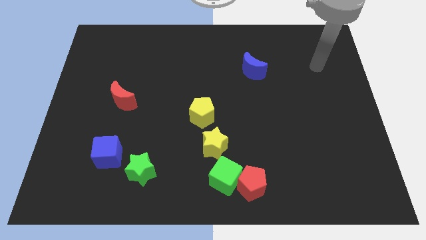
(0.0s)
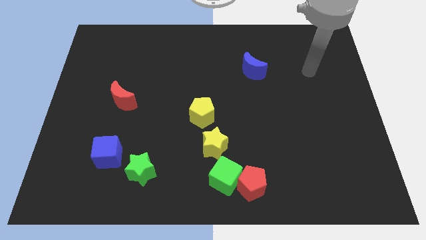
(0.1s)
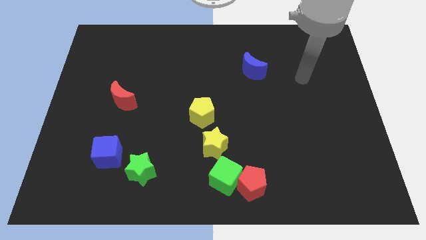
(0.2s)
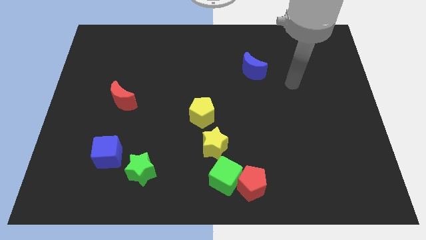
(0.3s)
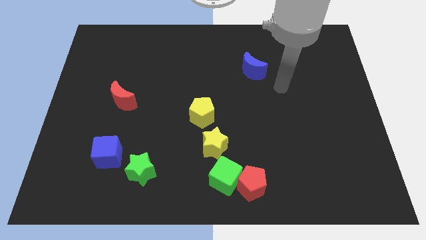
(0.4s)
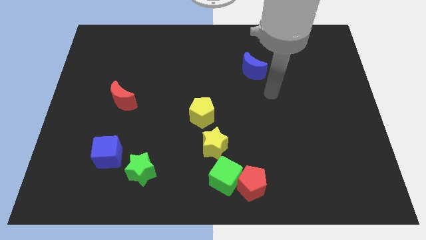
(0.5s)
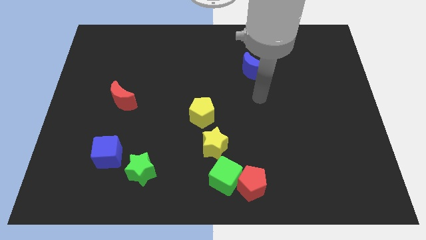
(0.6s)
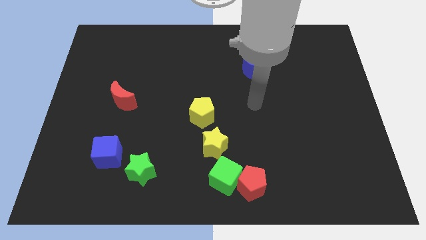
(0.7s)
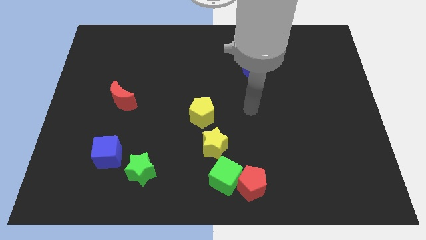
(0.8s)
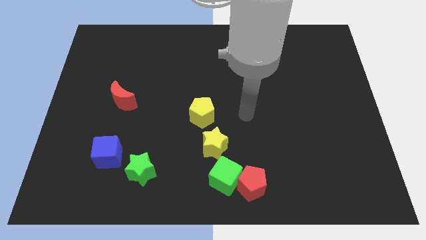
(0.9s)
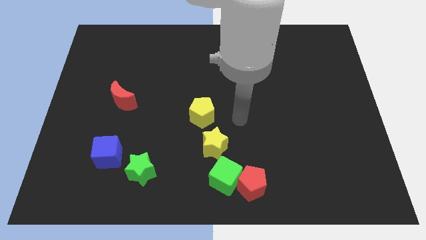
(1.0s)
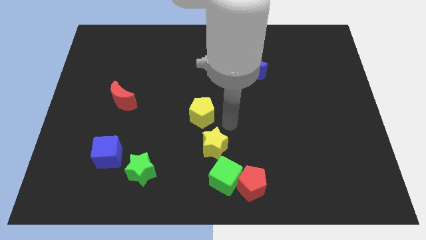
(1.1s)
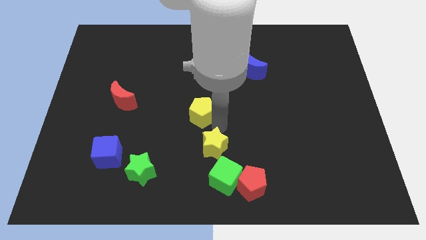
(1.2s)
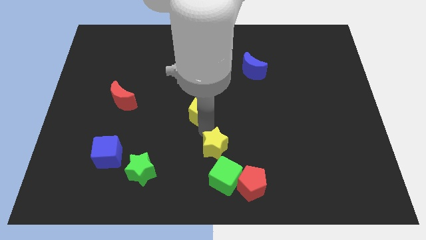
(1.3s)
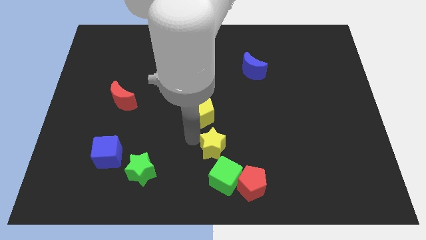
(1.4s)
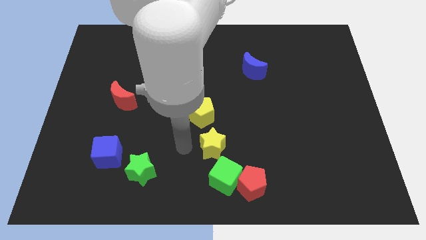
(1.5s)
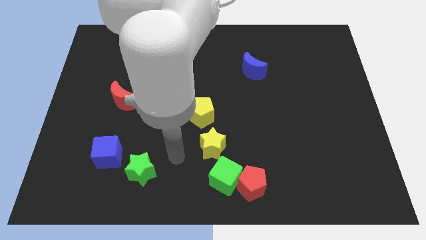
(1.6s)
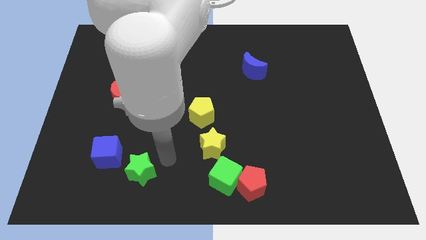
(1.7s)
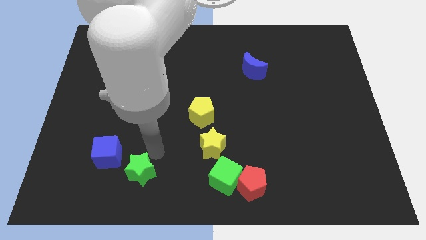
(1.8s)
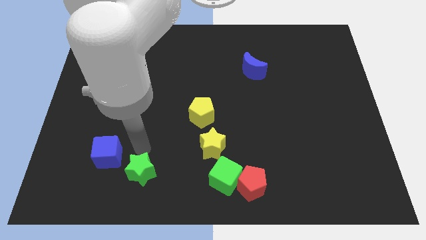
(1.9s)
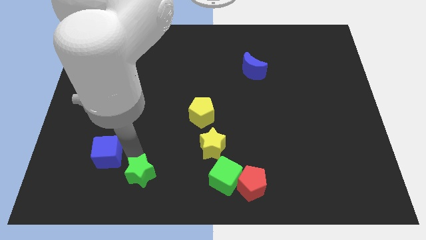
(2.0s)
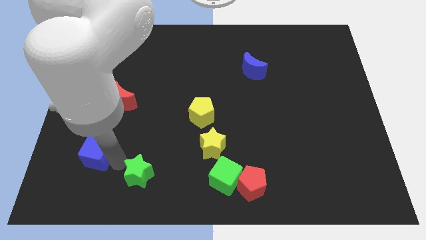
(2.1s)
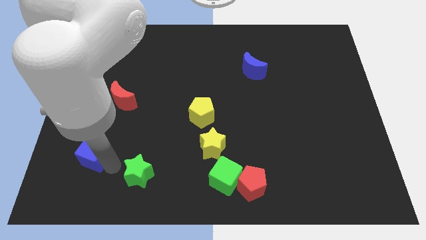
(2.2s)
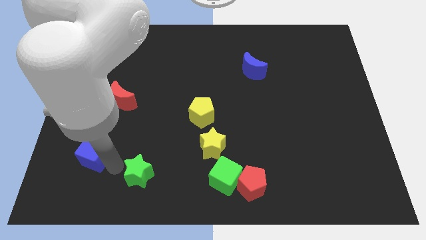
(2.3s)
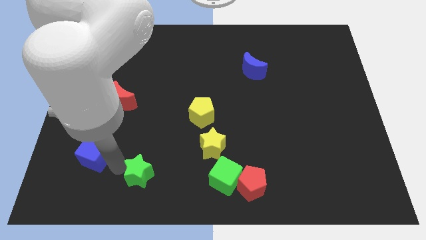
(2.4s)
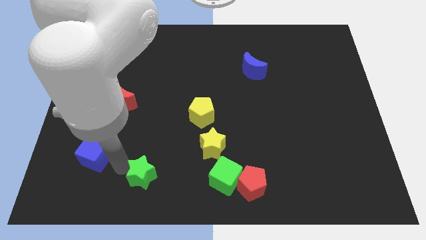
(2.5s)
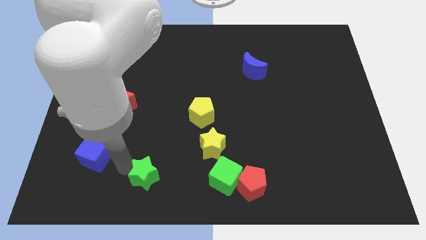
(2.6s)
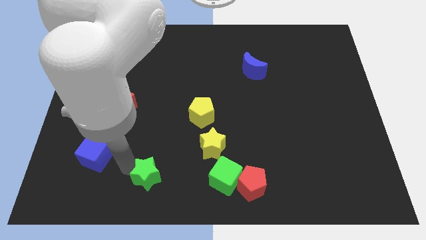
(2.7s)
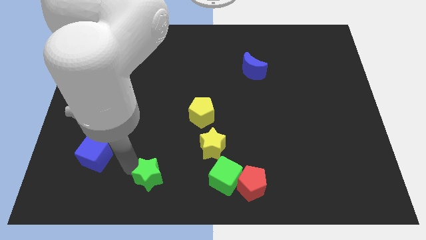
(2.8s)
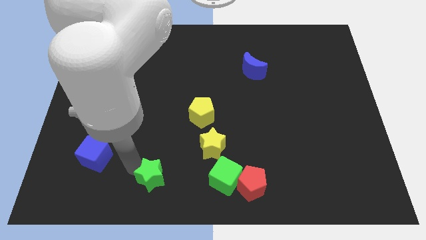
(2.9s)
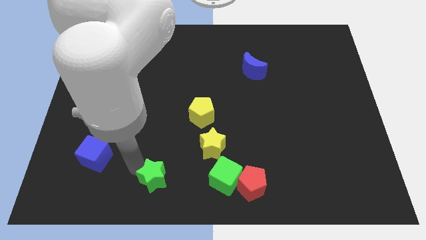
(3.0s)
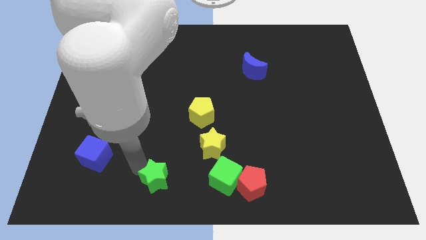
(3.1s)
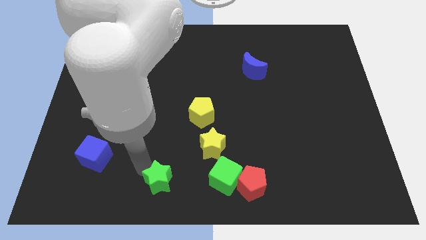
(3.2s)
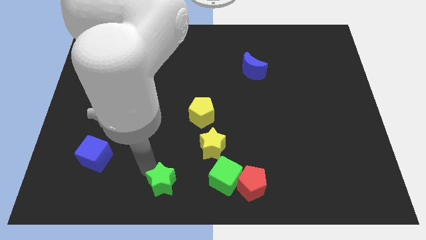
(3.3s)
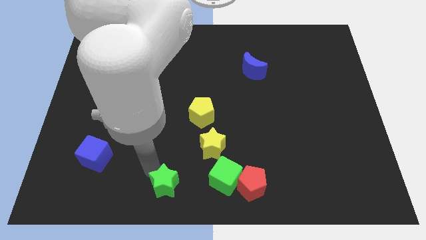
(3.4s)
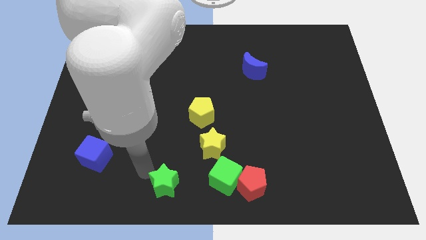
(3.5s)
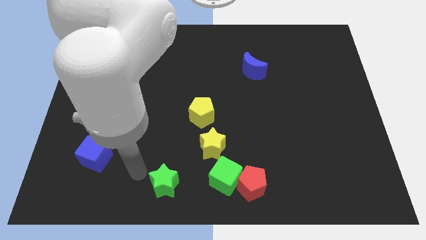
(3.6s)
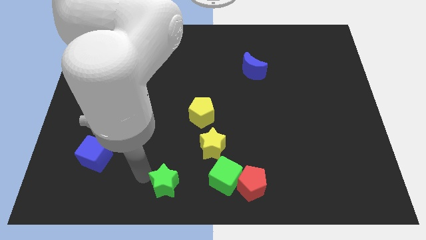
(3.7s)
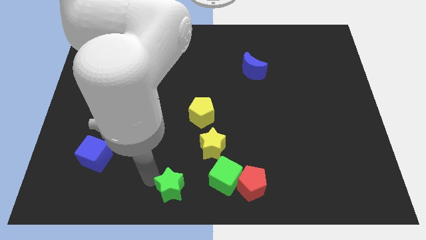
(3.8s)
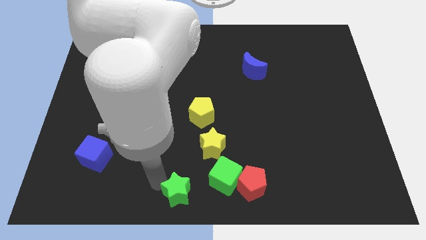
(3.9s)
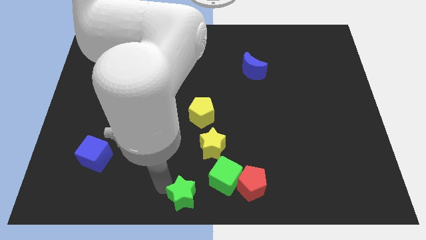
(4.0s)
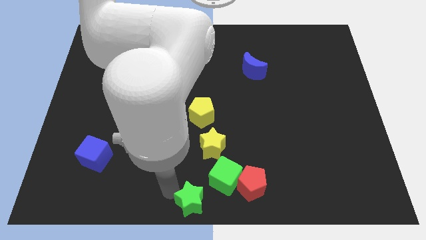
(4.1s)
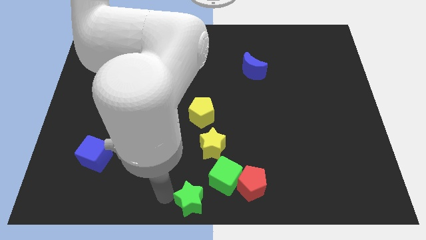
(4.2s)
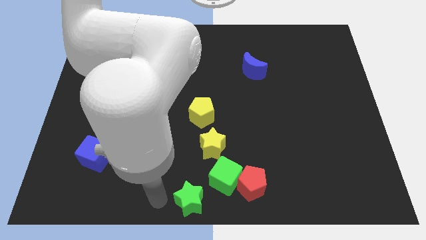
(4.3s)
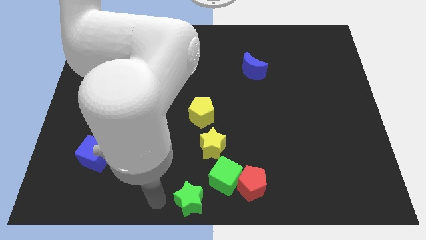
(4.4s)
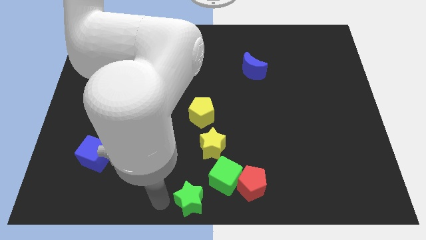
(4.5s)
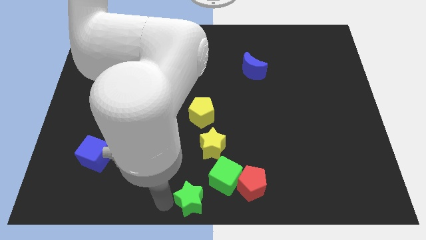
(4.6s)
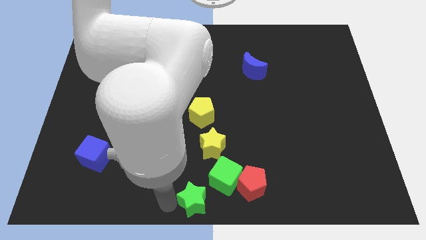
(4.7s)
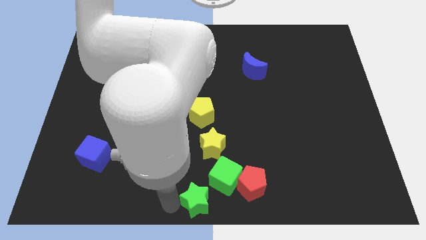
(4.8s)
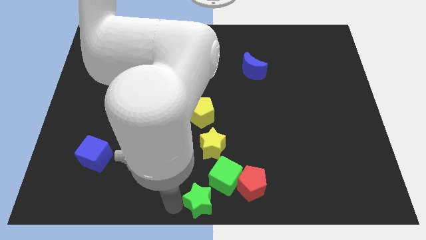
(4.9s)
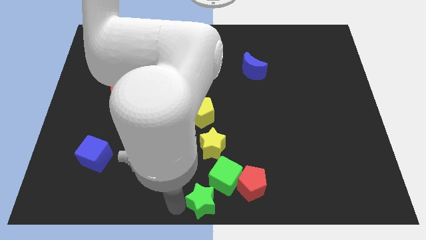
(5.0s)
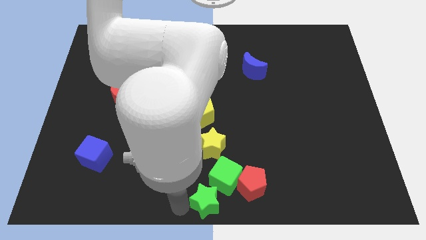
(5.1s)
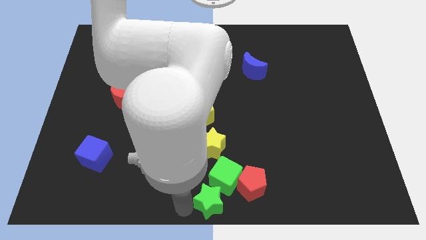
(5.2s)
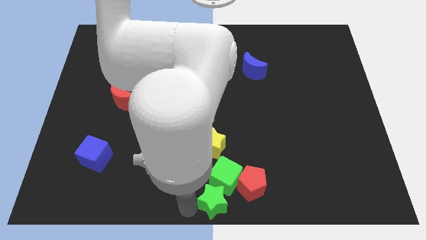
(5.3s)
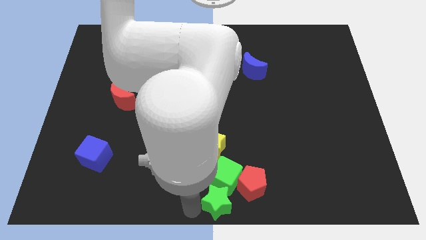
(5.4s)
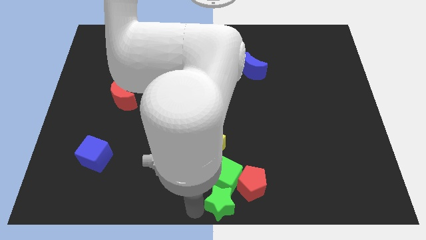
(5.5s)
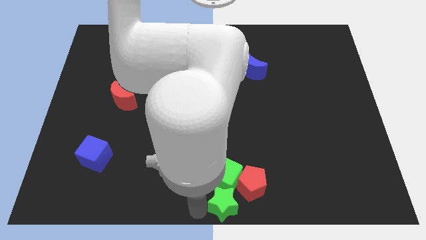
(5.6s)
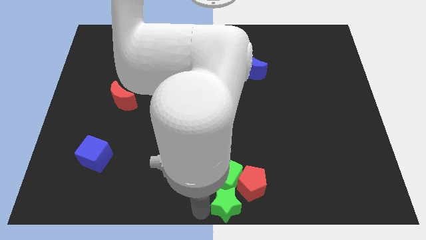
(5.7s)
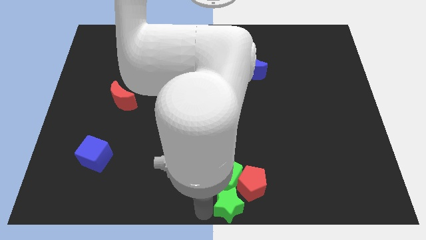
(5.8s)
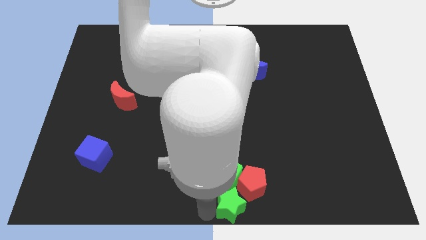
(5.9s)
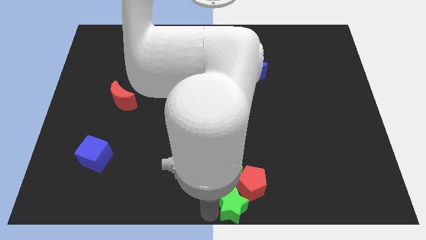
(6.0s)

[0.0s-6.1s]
put the green star close to the red pentagon

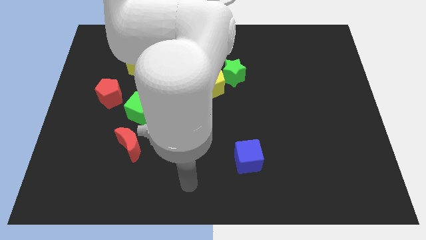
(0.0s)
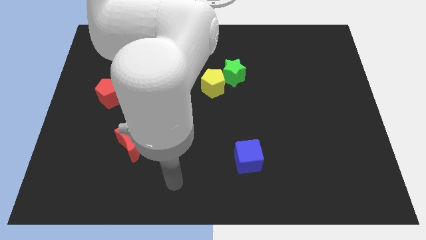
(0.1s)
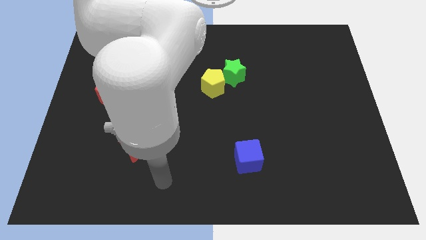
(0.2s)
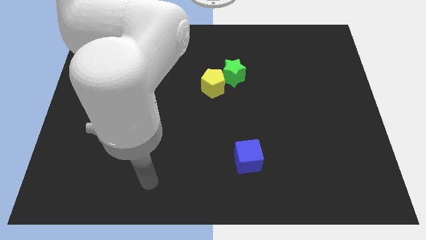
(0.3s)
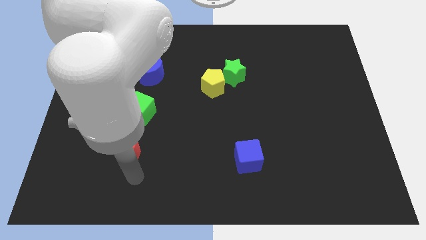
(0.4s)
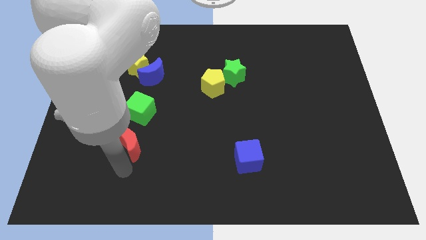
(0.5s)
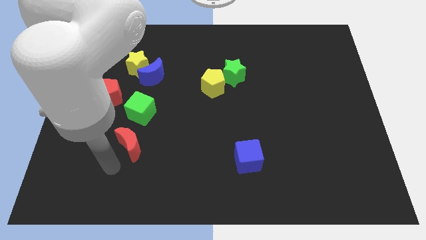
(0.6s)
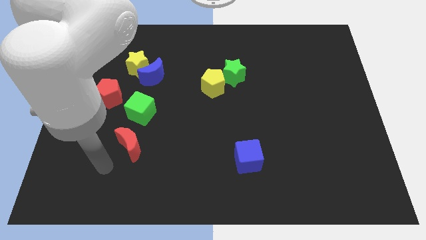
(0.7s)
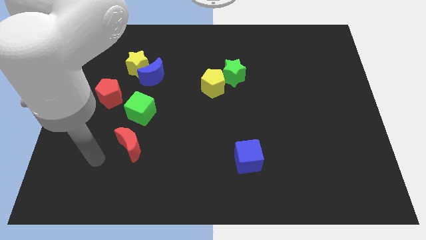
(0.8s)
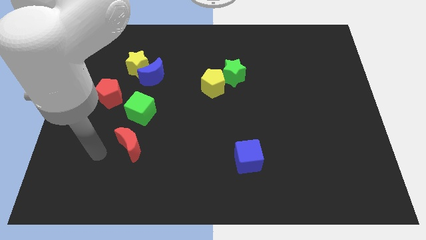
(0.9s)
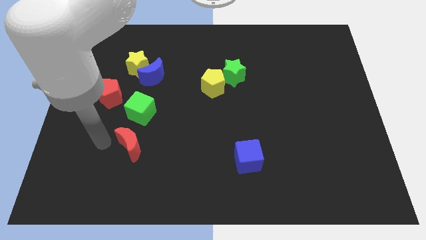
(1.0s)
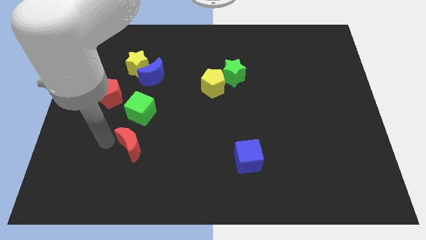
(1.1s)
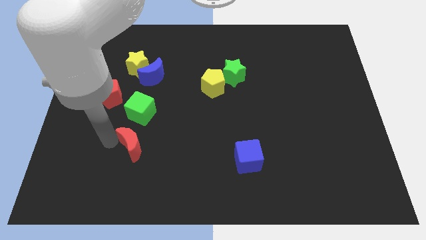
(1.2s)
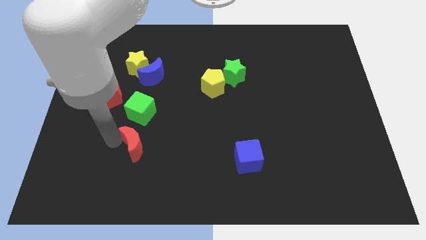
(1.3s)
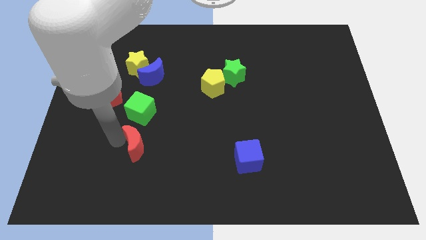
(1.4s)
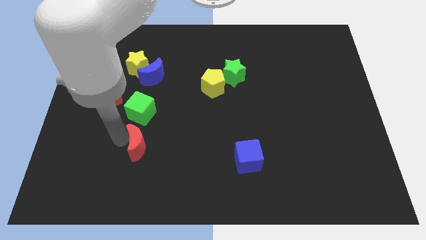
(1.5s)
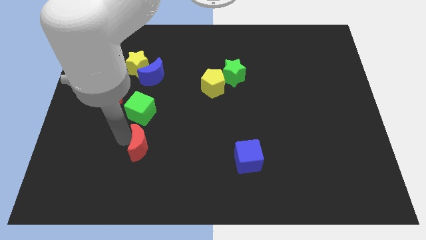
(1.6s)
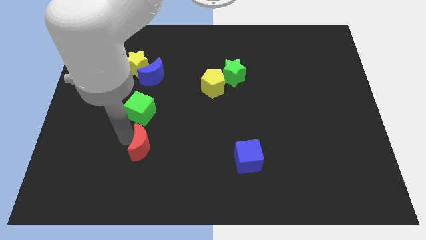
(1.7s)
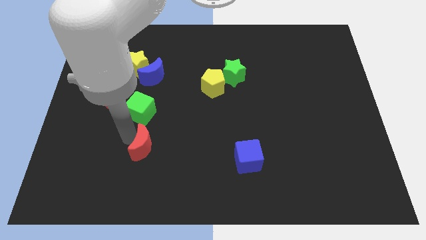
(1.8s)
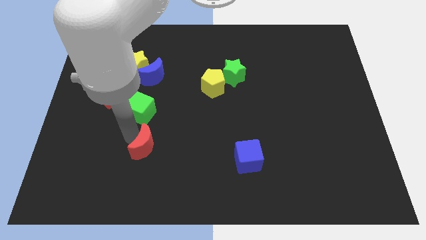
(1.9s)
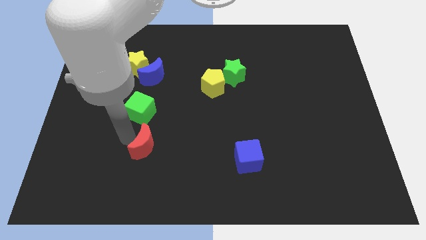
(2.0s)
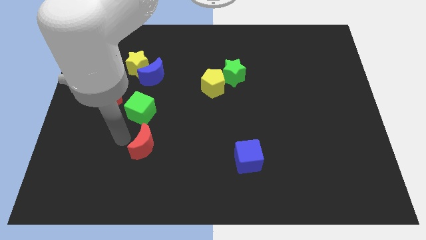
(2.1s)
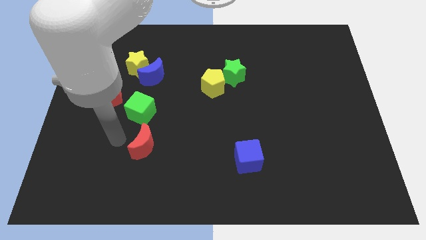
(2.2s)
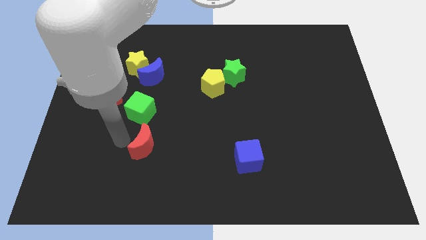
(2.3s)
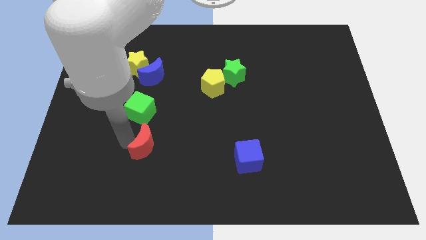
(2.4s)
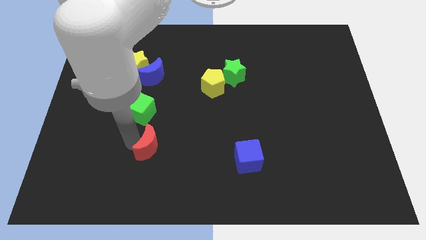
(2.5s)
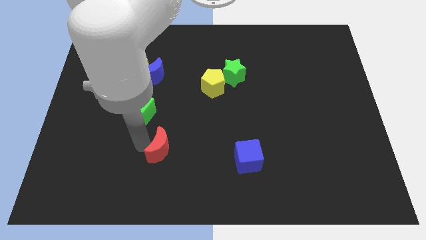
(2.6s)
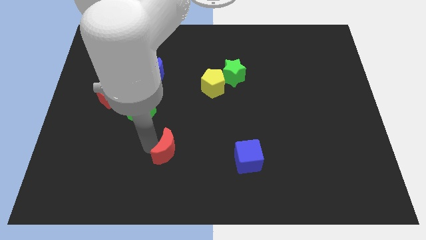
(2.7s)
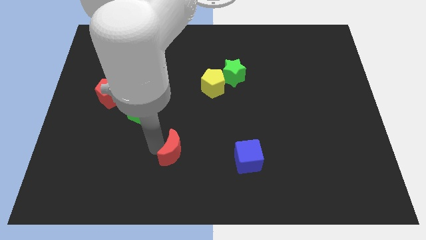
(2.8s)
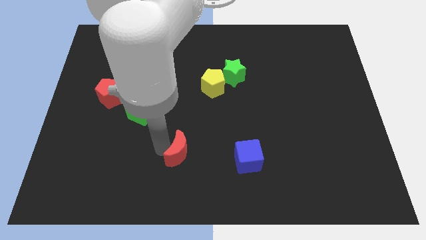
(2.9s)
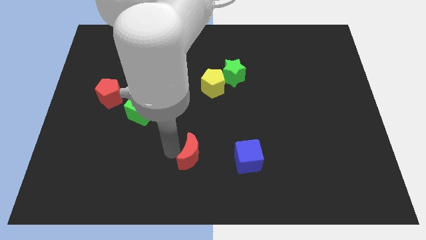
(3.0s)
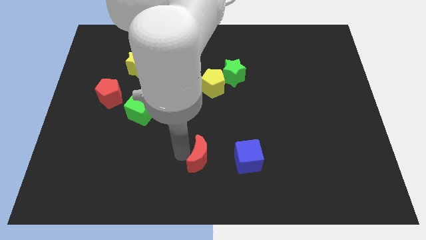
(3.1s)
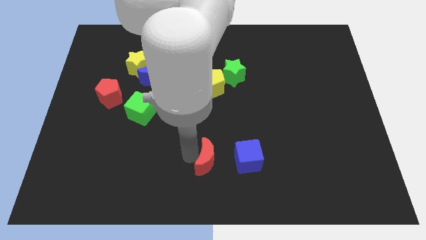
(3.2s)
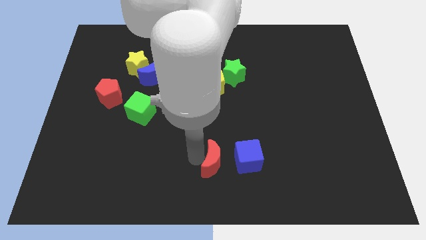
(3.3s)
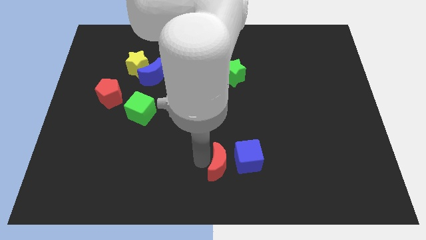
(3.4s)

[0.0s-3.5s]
push the red moon towards the blue cube
